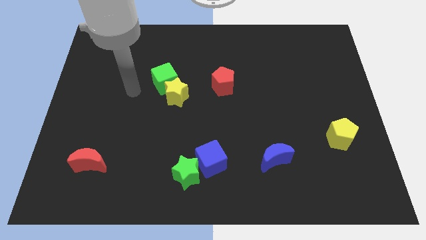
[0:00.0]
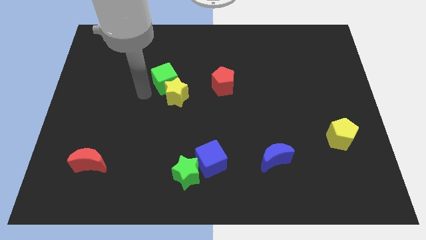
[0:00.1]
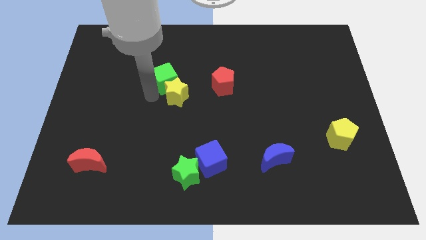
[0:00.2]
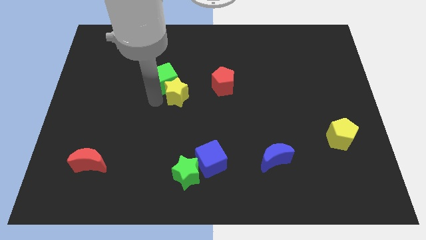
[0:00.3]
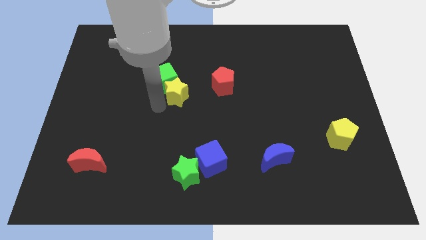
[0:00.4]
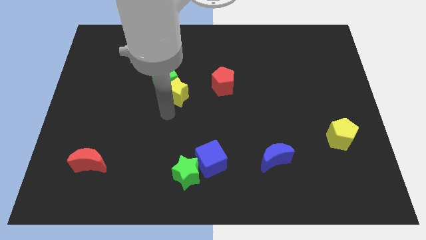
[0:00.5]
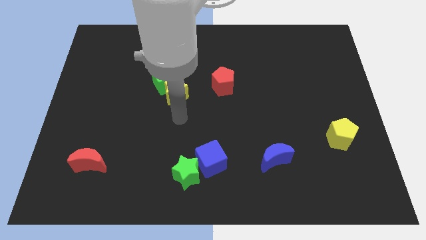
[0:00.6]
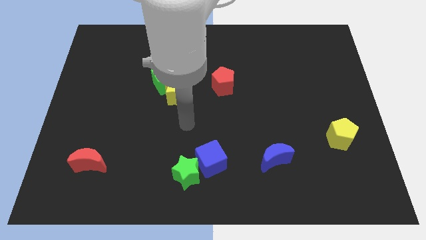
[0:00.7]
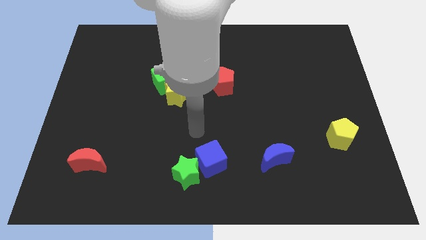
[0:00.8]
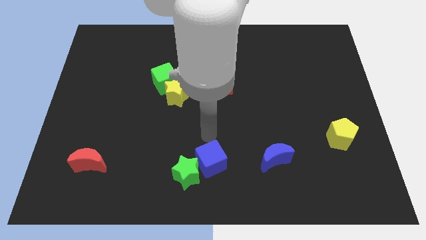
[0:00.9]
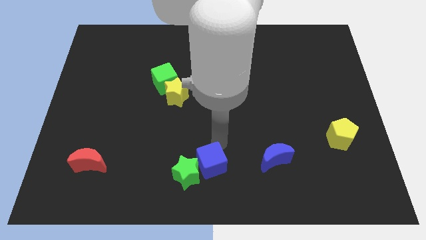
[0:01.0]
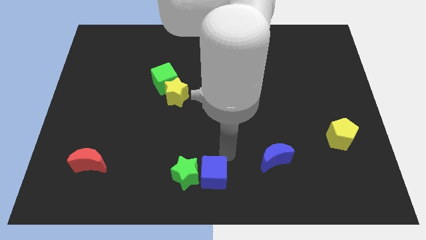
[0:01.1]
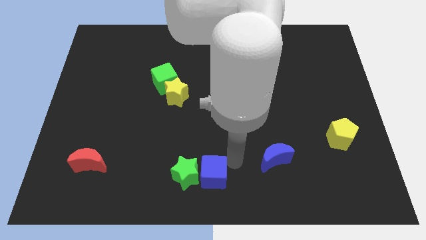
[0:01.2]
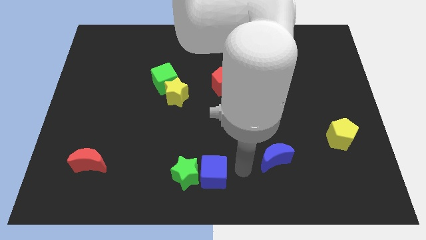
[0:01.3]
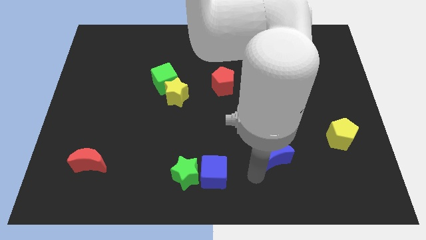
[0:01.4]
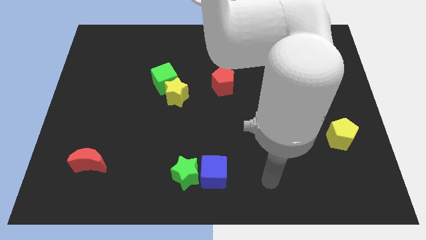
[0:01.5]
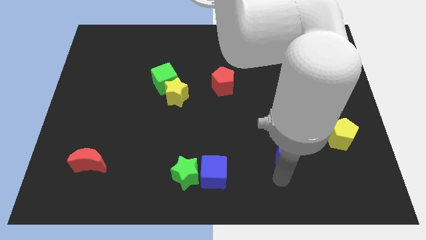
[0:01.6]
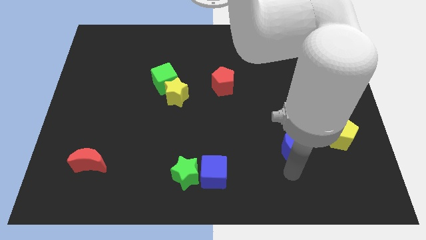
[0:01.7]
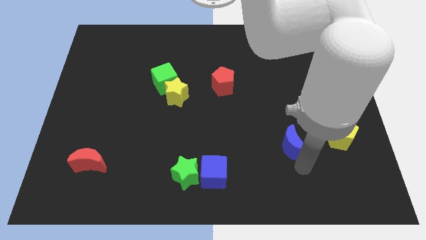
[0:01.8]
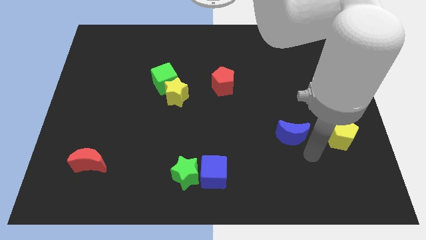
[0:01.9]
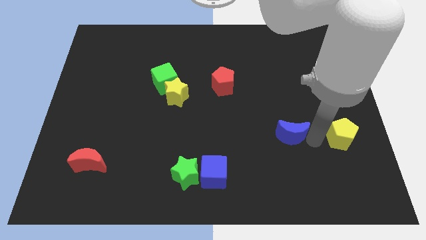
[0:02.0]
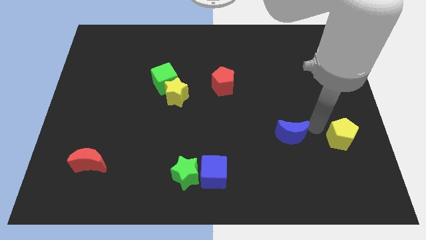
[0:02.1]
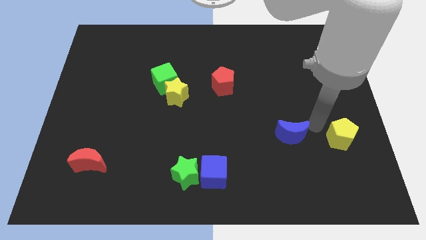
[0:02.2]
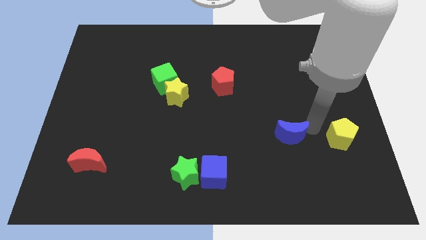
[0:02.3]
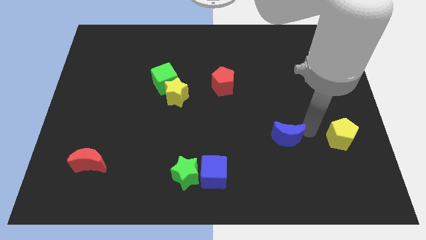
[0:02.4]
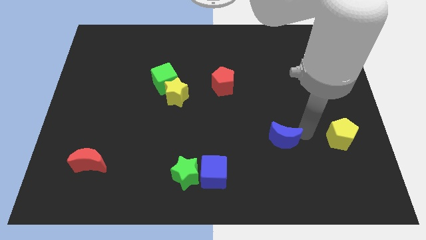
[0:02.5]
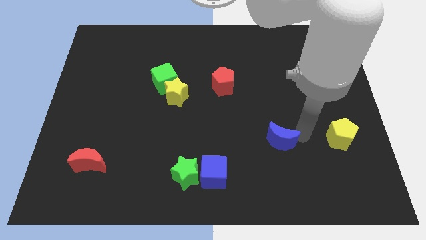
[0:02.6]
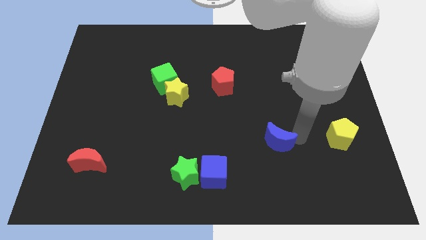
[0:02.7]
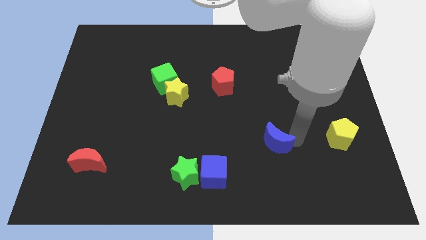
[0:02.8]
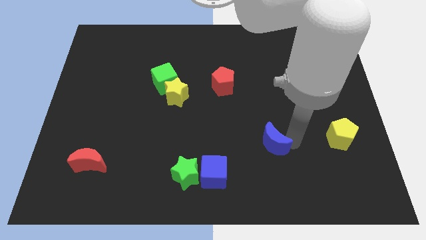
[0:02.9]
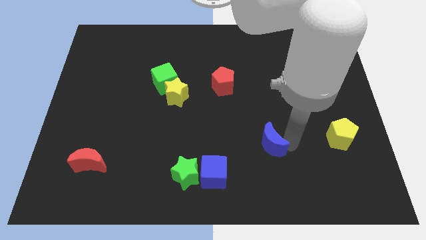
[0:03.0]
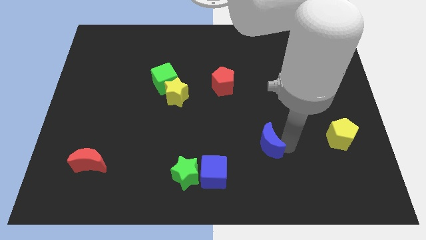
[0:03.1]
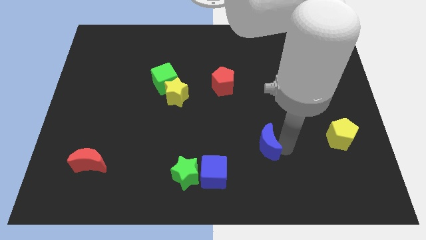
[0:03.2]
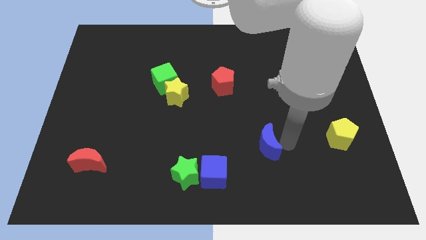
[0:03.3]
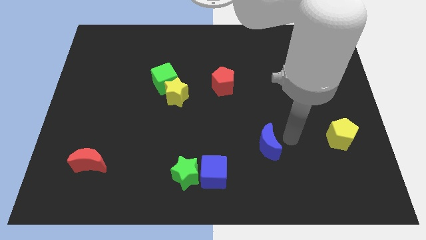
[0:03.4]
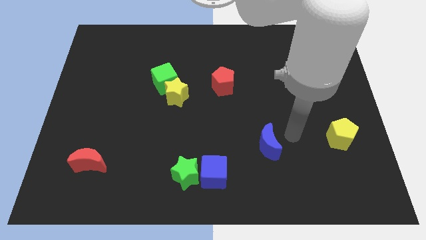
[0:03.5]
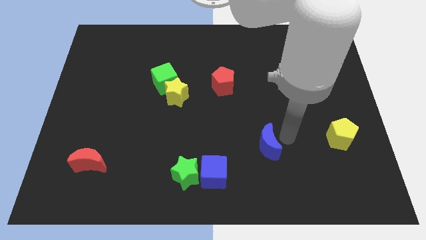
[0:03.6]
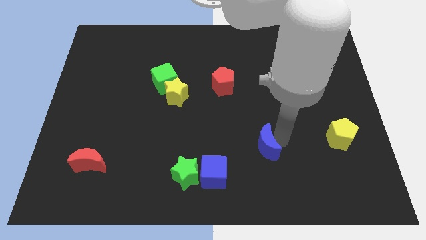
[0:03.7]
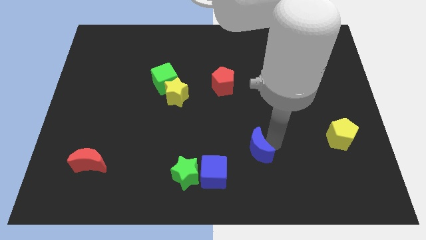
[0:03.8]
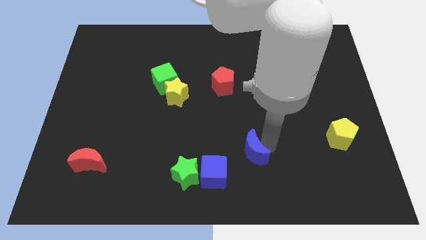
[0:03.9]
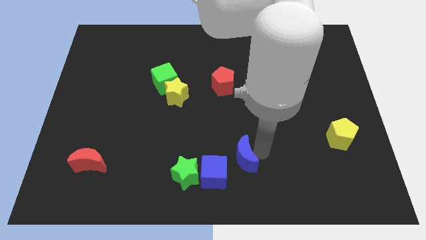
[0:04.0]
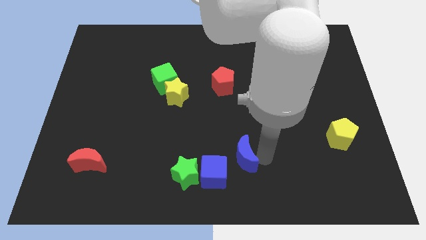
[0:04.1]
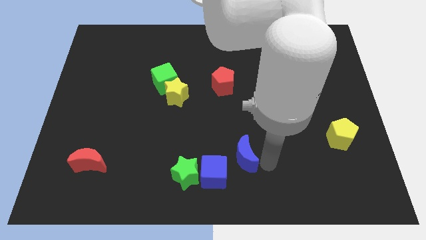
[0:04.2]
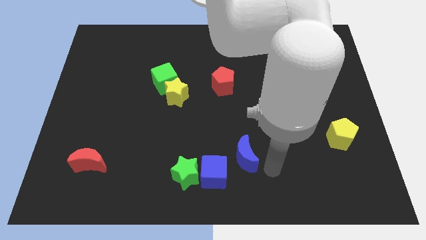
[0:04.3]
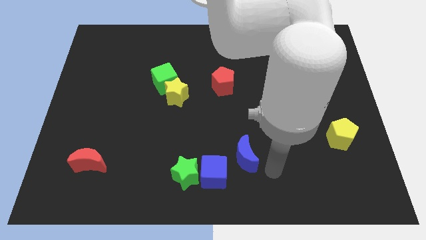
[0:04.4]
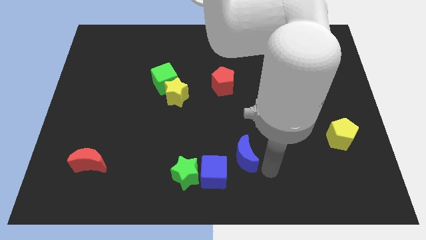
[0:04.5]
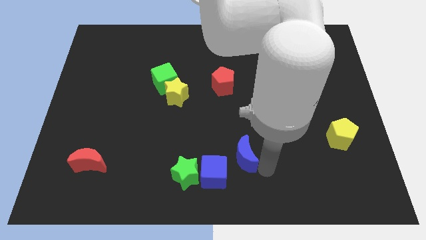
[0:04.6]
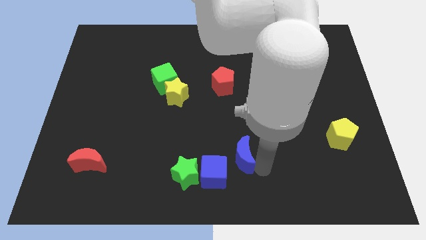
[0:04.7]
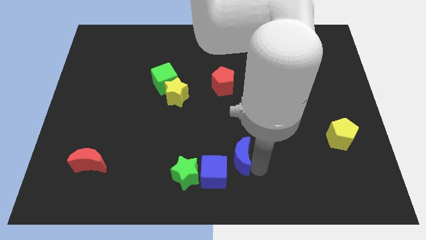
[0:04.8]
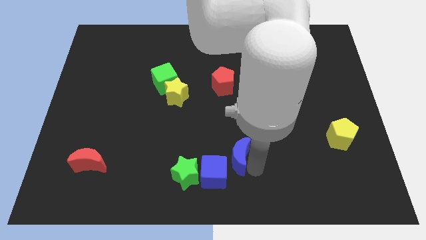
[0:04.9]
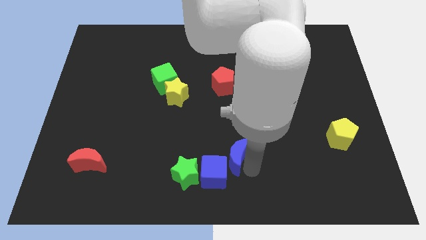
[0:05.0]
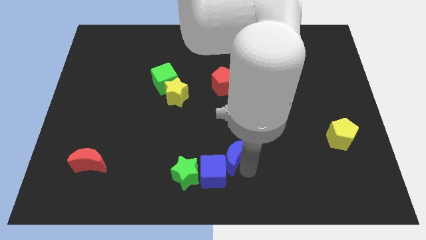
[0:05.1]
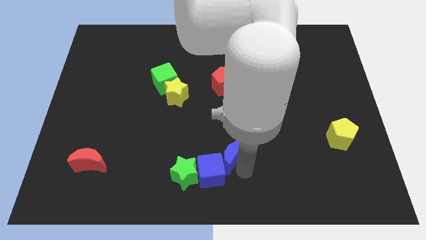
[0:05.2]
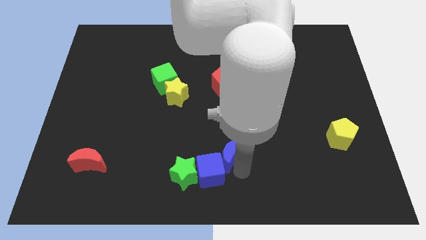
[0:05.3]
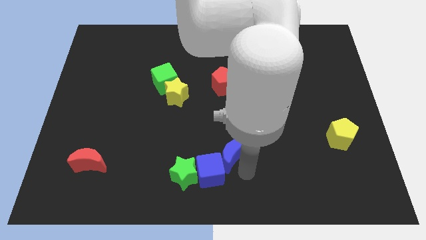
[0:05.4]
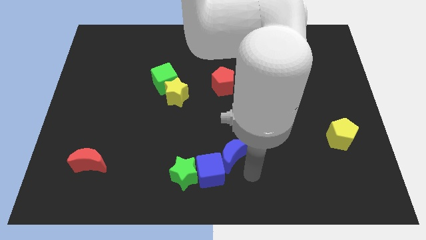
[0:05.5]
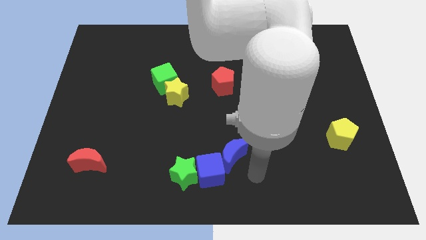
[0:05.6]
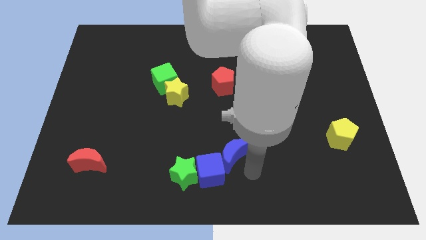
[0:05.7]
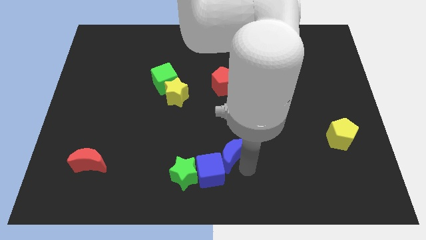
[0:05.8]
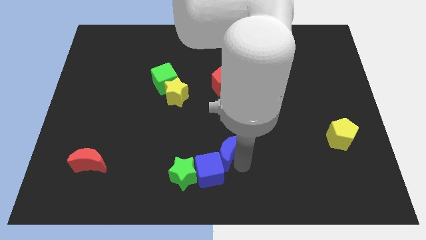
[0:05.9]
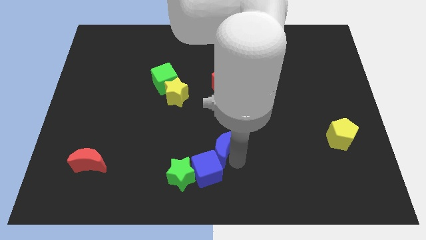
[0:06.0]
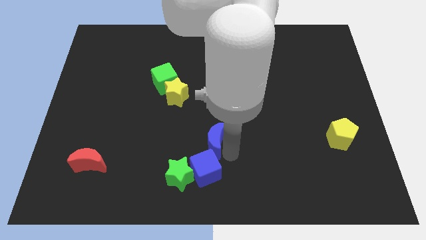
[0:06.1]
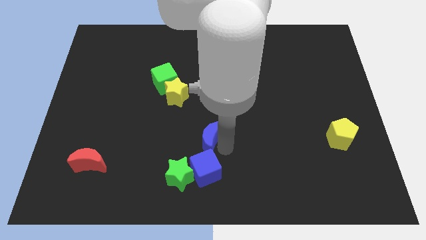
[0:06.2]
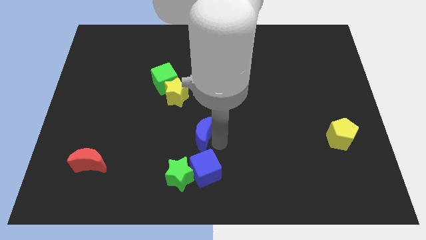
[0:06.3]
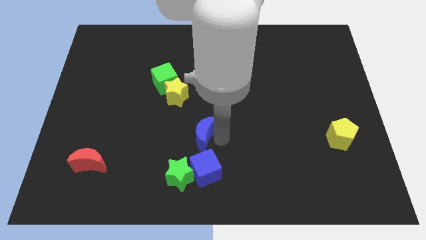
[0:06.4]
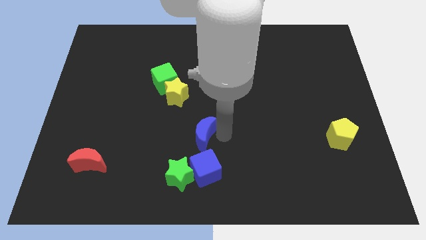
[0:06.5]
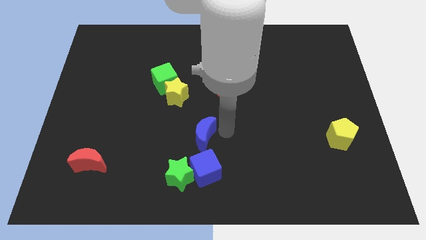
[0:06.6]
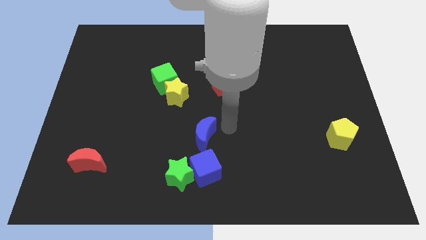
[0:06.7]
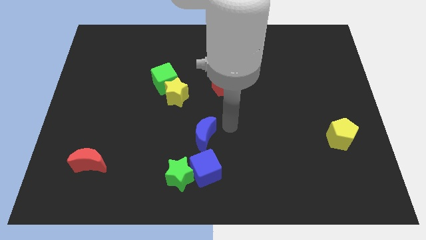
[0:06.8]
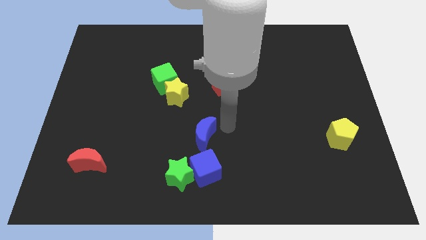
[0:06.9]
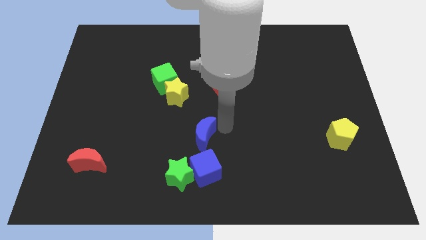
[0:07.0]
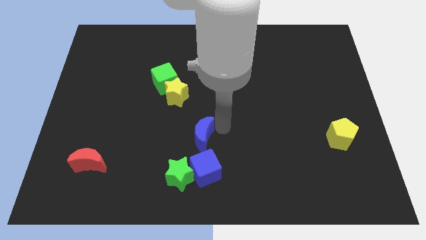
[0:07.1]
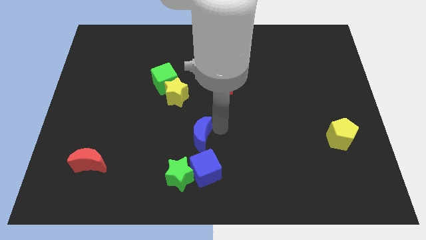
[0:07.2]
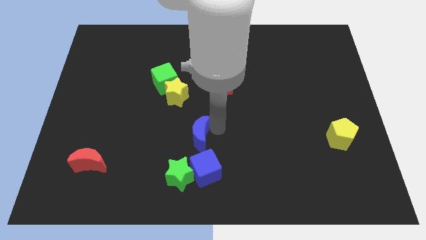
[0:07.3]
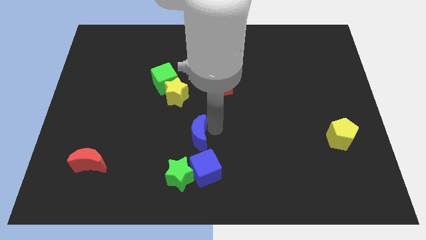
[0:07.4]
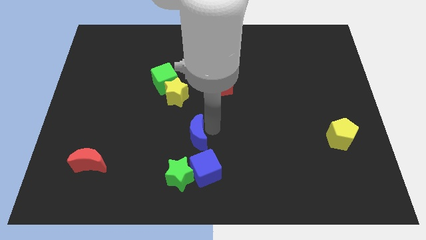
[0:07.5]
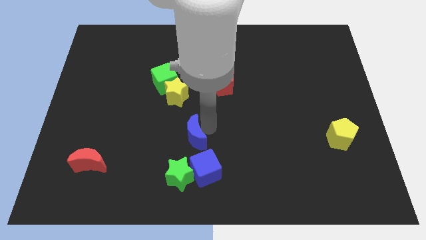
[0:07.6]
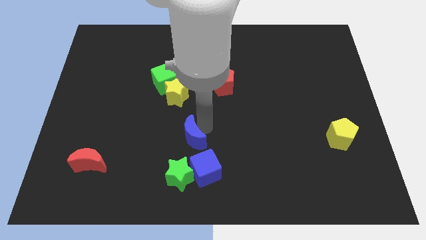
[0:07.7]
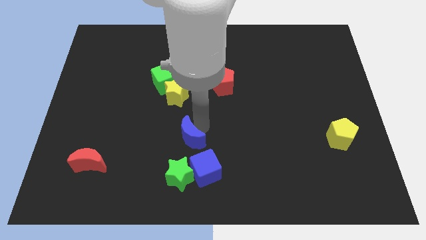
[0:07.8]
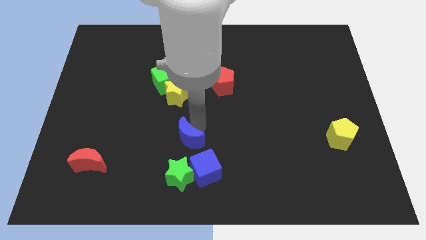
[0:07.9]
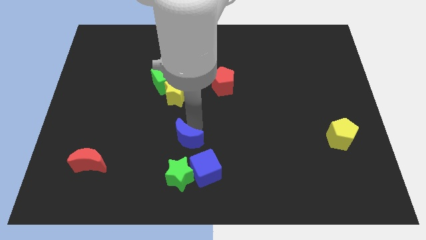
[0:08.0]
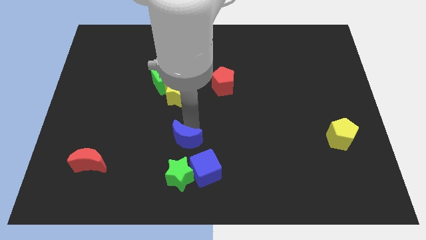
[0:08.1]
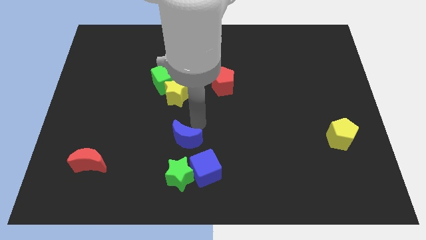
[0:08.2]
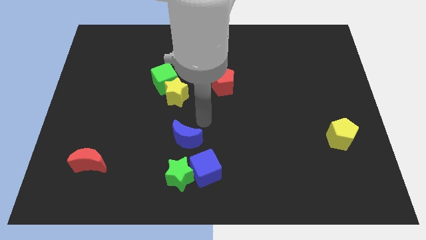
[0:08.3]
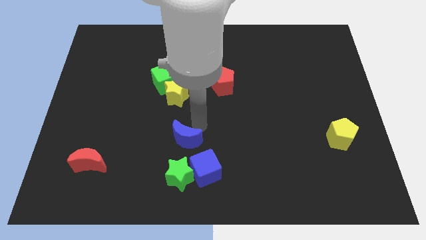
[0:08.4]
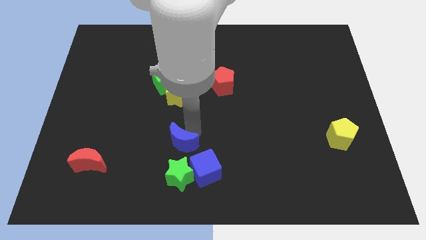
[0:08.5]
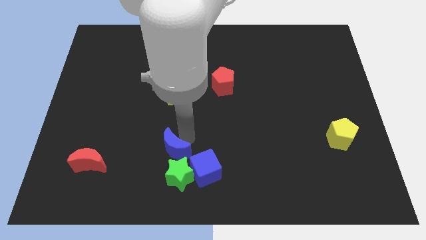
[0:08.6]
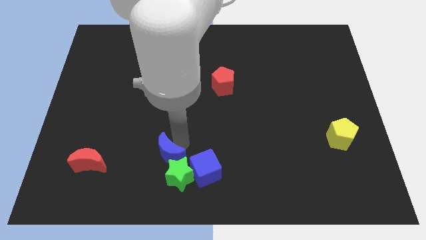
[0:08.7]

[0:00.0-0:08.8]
slide the blue moon left of the blue cube
